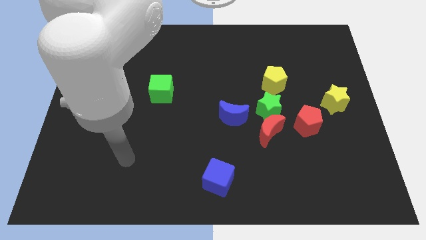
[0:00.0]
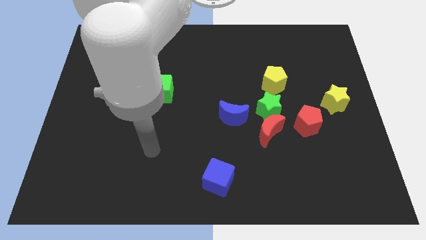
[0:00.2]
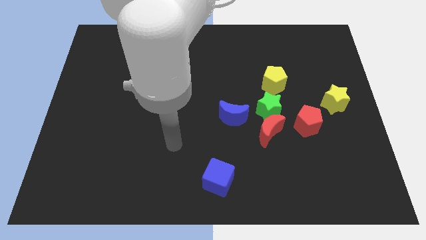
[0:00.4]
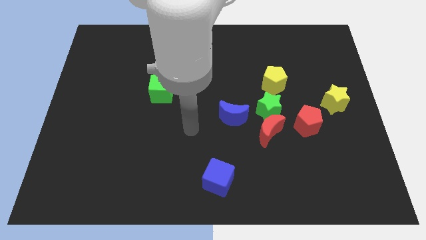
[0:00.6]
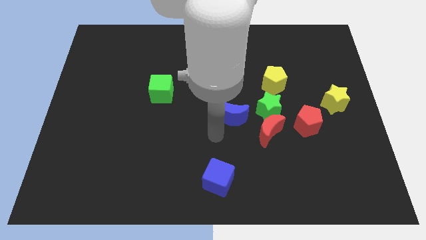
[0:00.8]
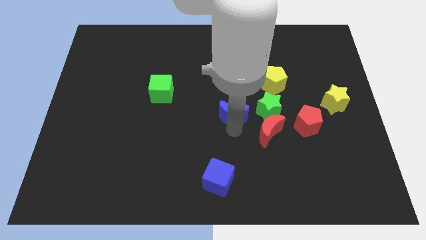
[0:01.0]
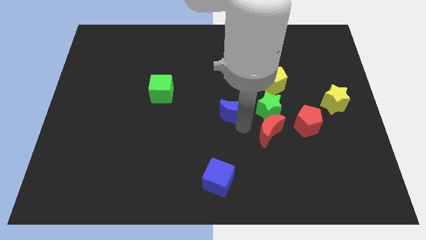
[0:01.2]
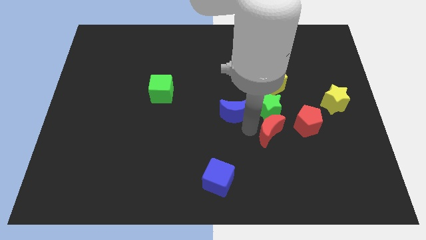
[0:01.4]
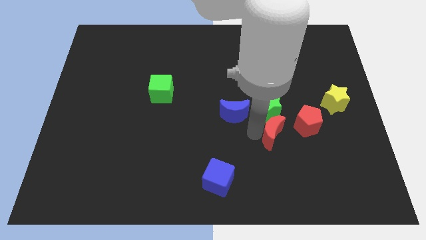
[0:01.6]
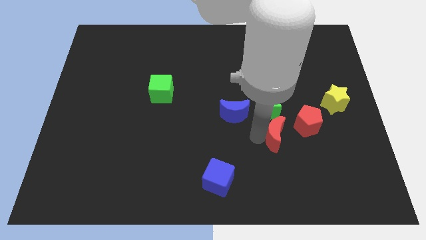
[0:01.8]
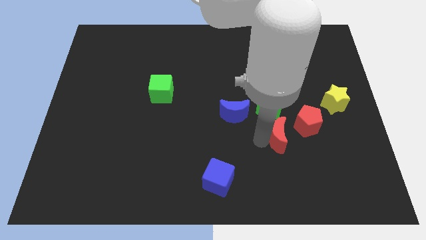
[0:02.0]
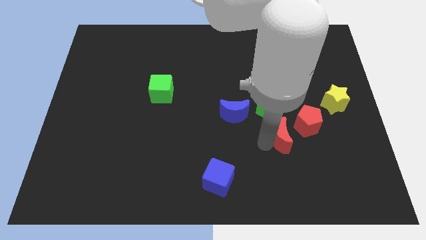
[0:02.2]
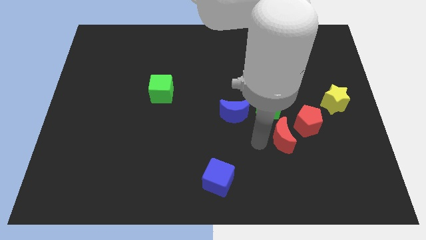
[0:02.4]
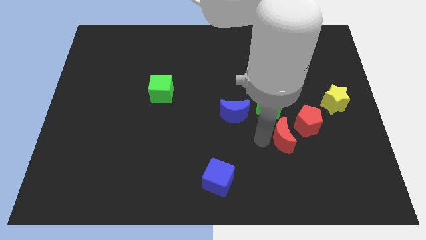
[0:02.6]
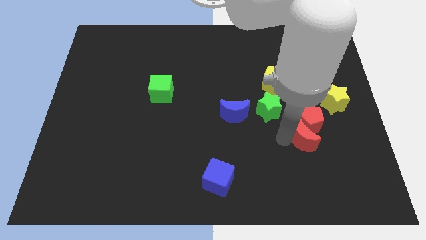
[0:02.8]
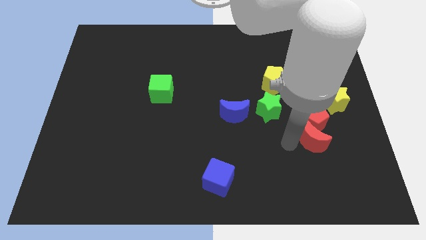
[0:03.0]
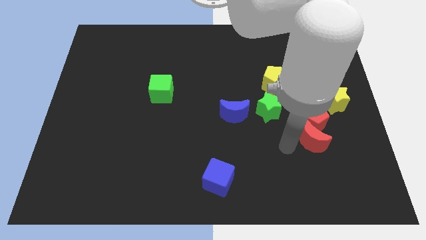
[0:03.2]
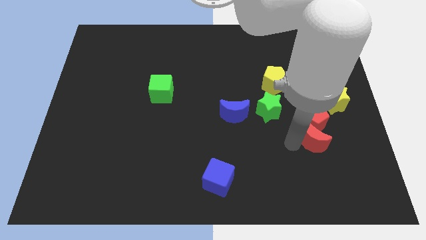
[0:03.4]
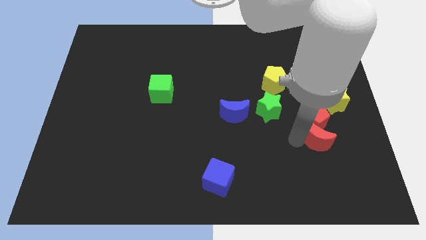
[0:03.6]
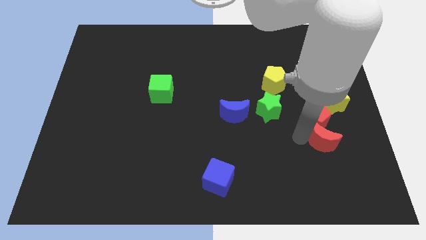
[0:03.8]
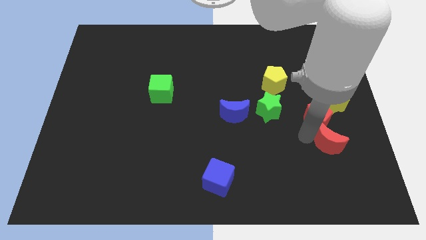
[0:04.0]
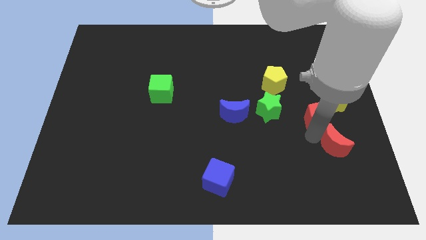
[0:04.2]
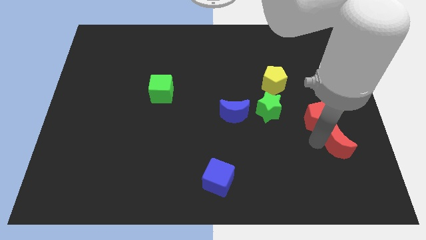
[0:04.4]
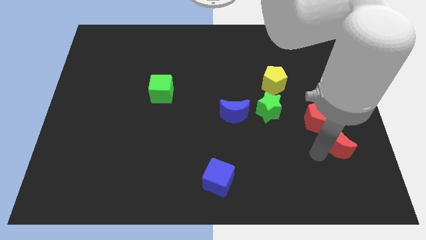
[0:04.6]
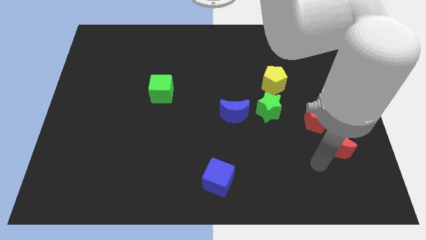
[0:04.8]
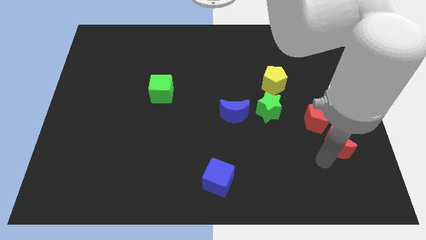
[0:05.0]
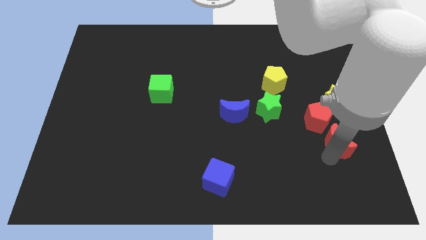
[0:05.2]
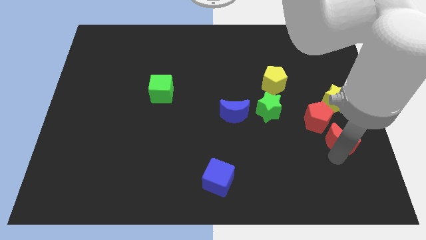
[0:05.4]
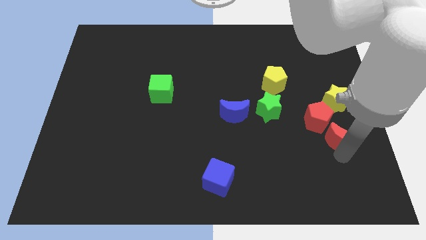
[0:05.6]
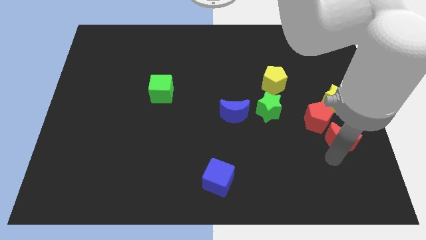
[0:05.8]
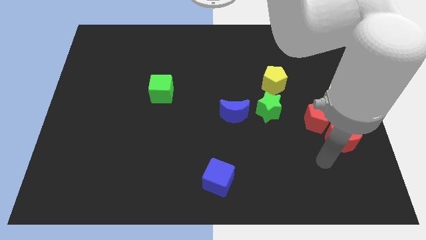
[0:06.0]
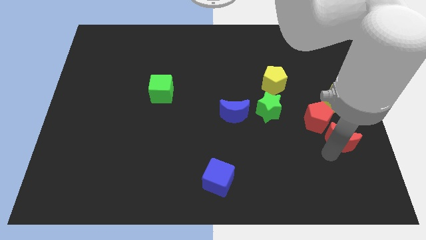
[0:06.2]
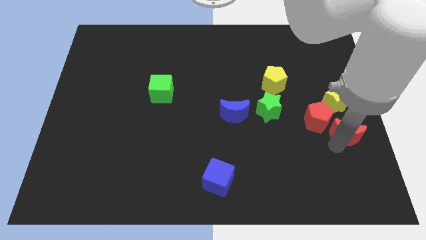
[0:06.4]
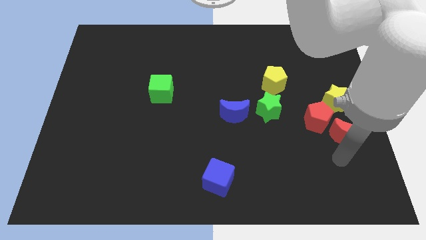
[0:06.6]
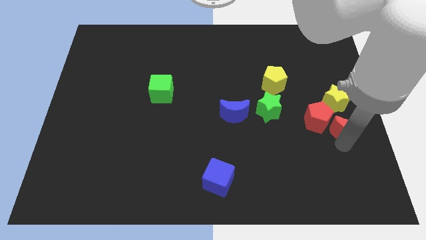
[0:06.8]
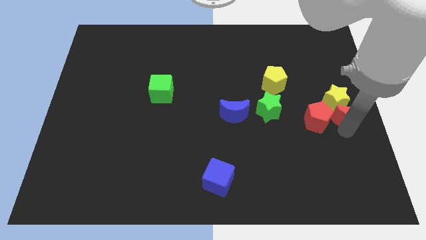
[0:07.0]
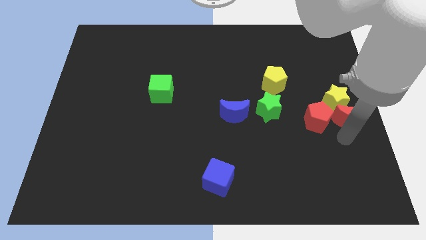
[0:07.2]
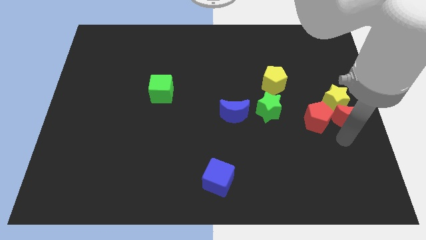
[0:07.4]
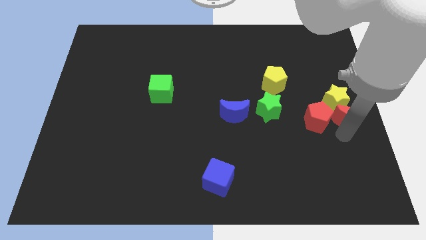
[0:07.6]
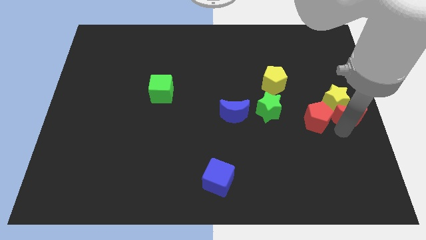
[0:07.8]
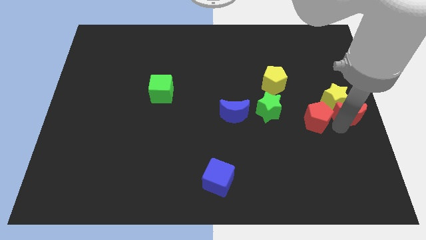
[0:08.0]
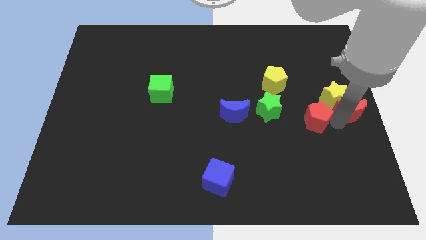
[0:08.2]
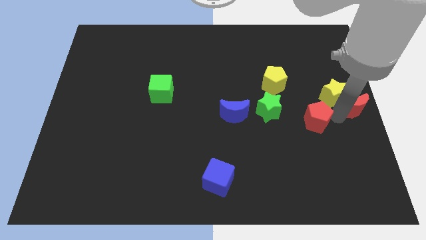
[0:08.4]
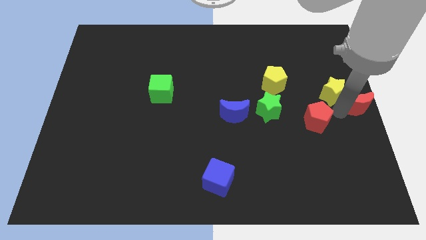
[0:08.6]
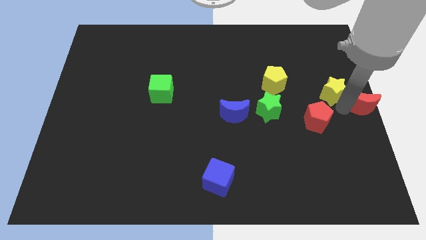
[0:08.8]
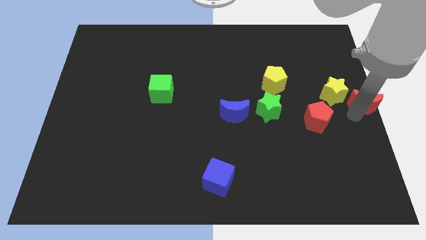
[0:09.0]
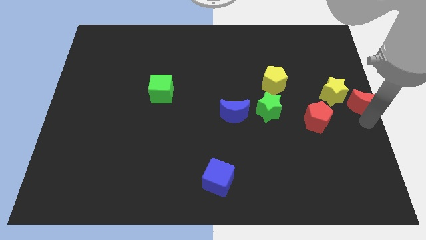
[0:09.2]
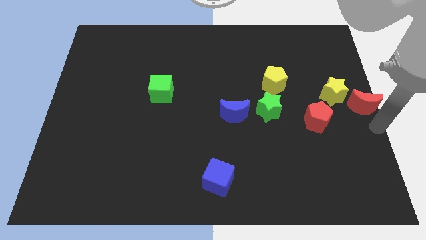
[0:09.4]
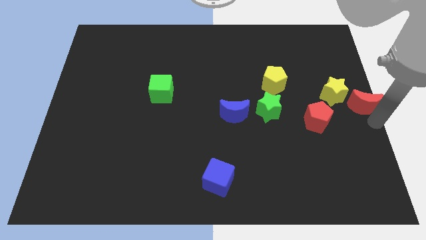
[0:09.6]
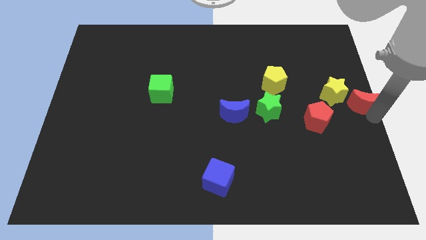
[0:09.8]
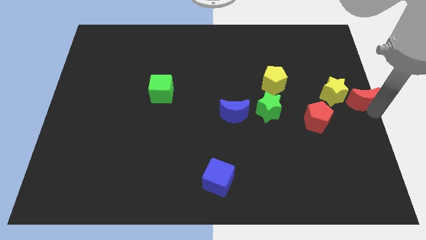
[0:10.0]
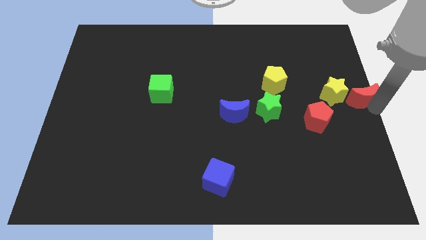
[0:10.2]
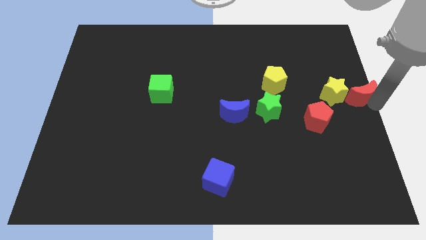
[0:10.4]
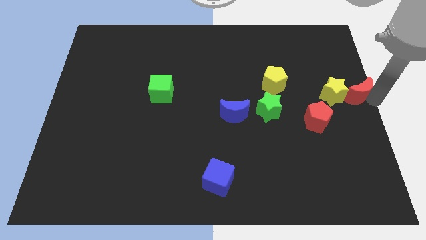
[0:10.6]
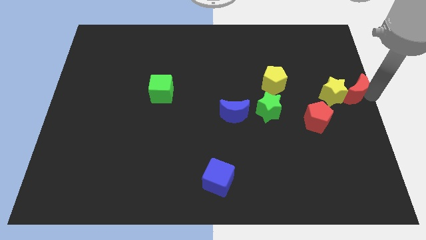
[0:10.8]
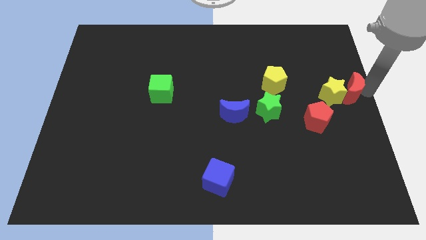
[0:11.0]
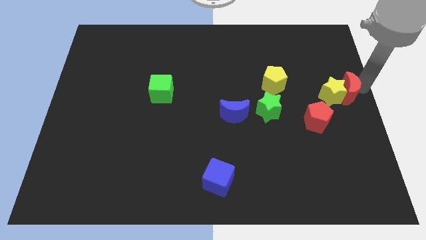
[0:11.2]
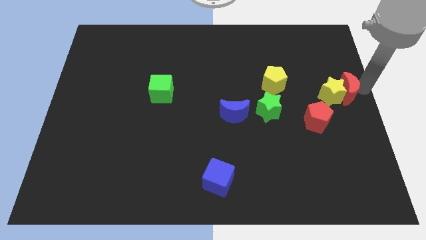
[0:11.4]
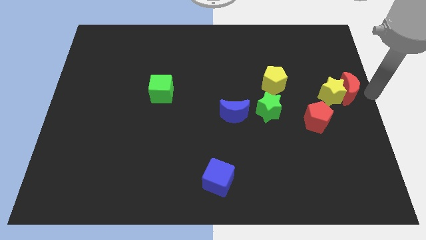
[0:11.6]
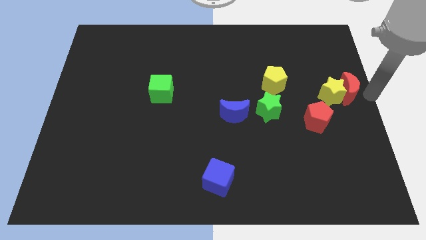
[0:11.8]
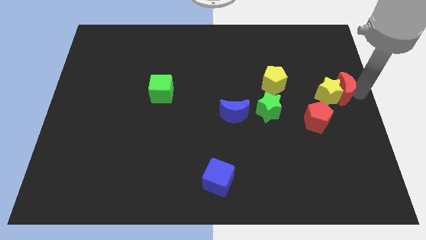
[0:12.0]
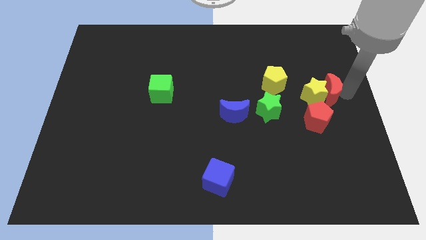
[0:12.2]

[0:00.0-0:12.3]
push the red moon to the right of the yellow pentagon

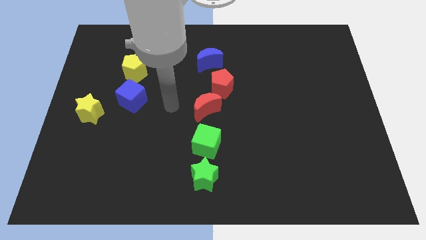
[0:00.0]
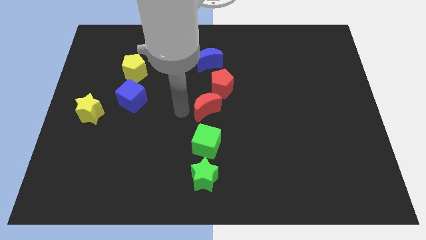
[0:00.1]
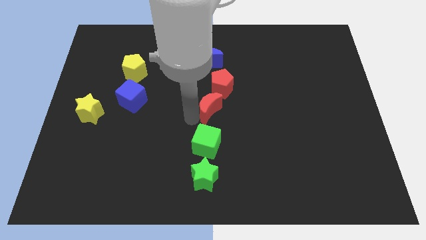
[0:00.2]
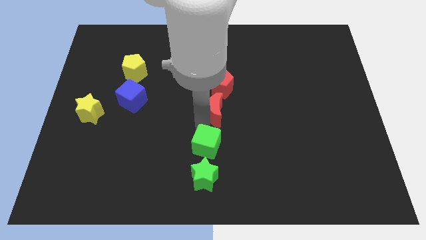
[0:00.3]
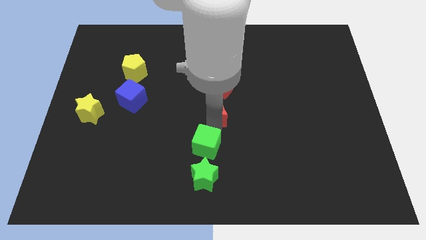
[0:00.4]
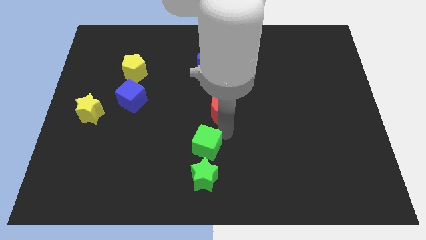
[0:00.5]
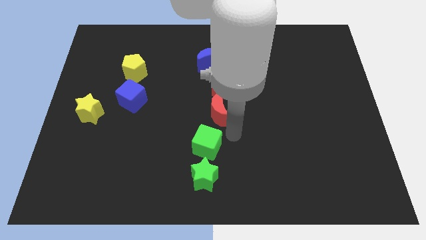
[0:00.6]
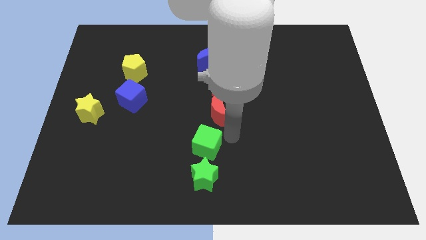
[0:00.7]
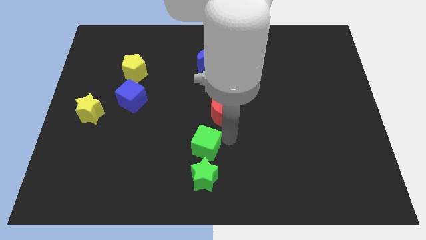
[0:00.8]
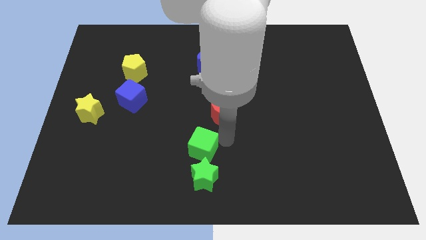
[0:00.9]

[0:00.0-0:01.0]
move the green cube to the top left of the green star
